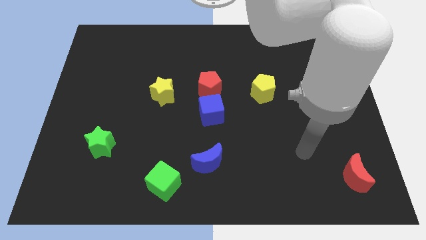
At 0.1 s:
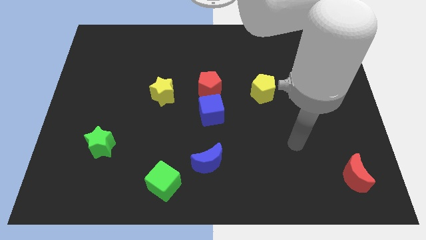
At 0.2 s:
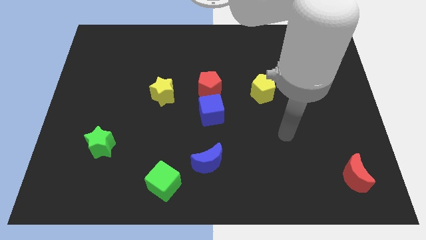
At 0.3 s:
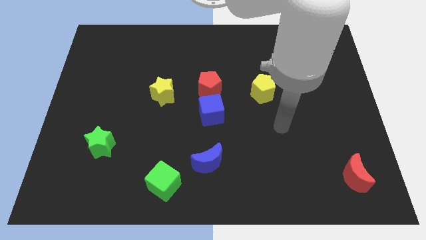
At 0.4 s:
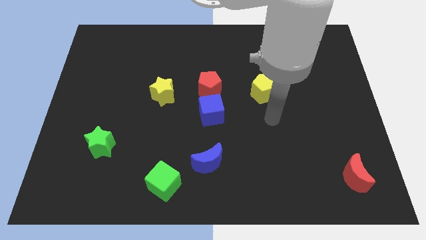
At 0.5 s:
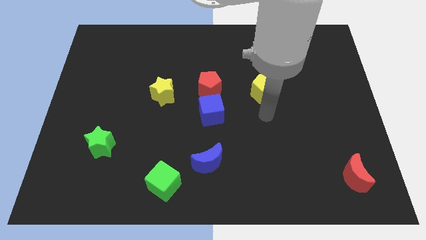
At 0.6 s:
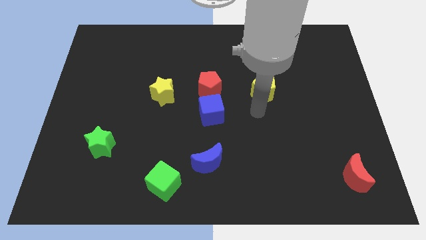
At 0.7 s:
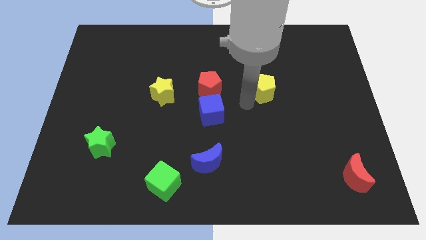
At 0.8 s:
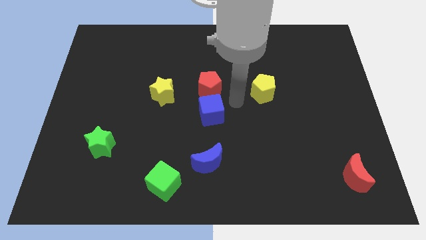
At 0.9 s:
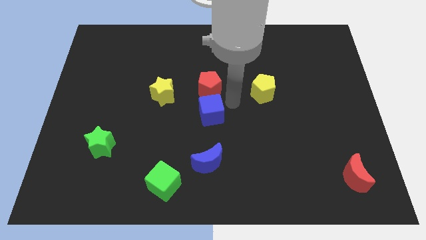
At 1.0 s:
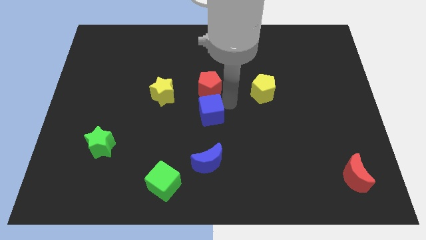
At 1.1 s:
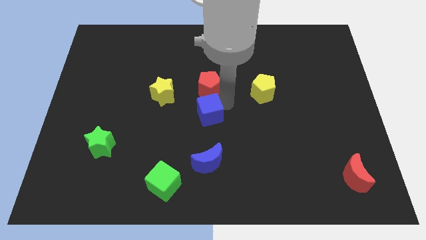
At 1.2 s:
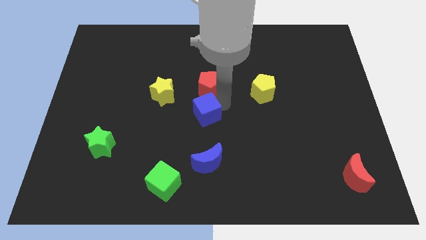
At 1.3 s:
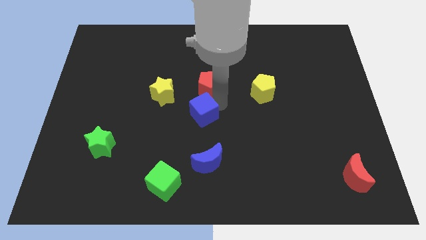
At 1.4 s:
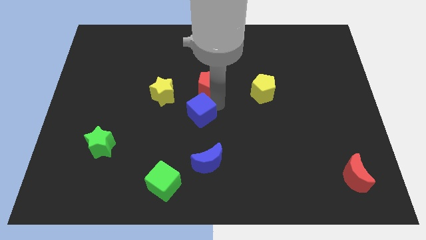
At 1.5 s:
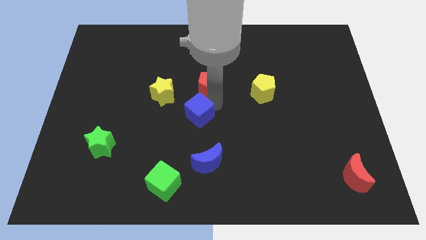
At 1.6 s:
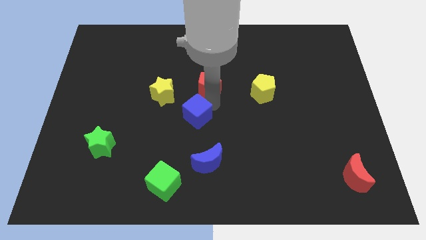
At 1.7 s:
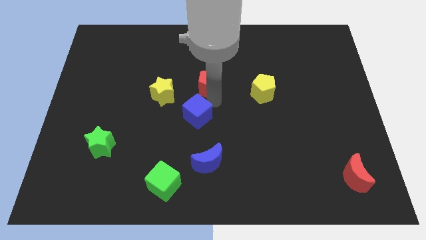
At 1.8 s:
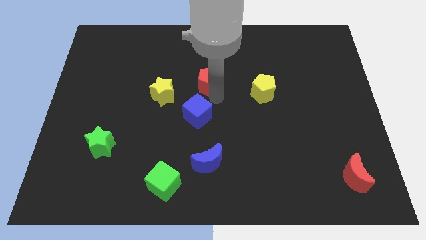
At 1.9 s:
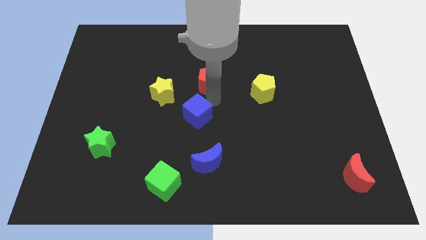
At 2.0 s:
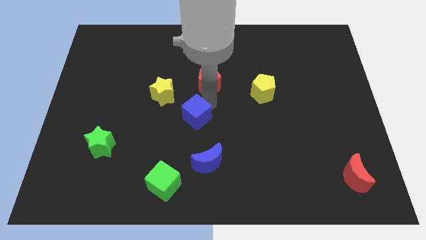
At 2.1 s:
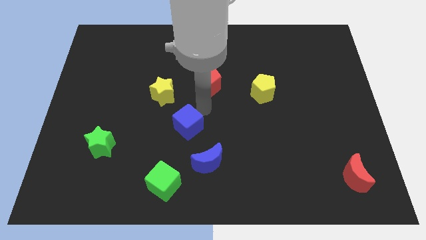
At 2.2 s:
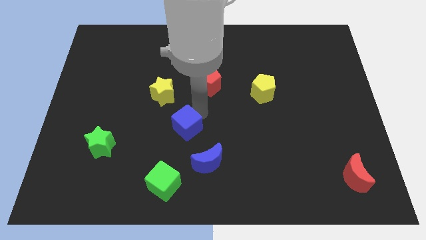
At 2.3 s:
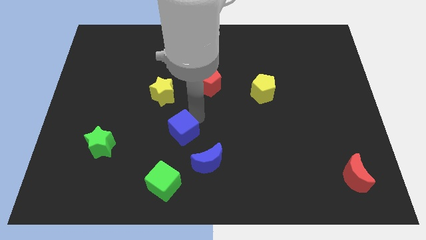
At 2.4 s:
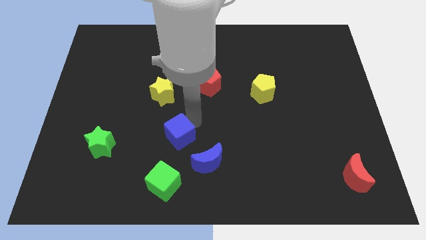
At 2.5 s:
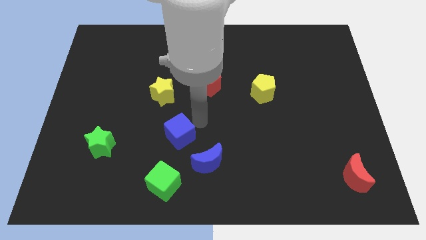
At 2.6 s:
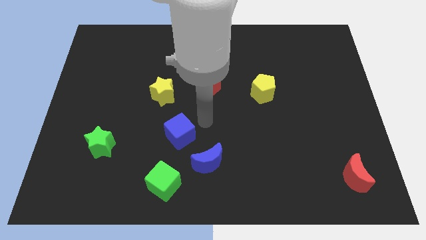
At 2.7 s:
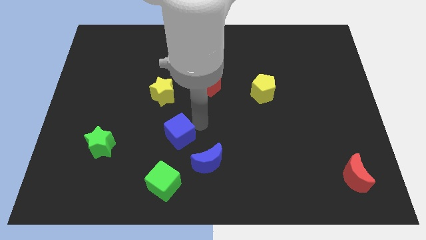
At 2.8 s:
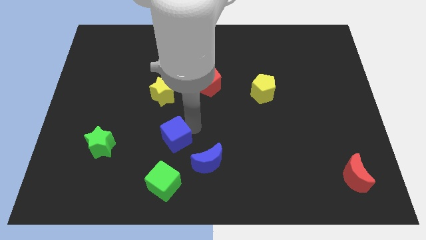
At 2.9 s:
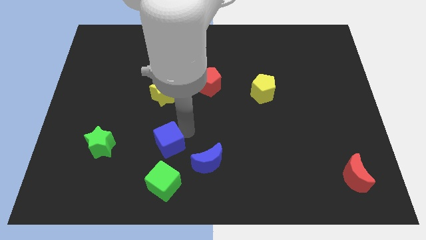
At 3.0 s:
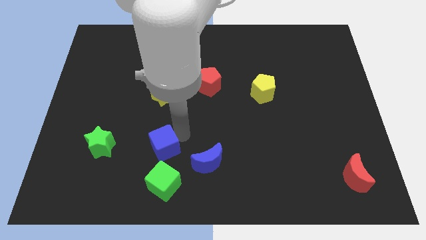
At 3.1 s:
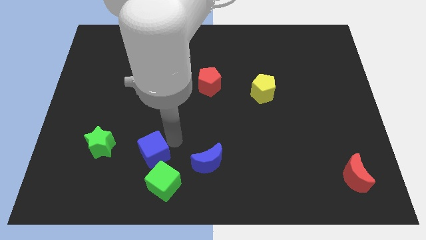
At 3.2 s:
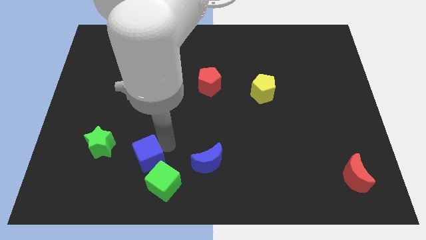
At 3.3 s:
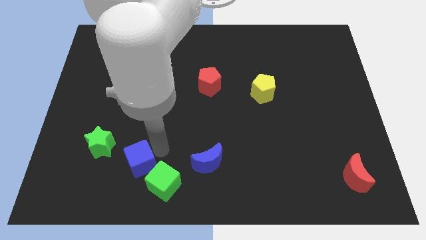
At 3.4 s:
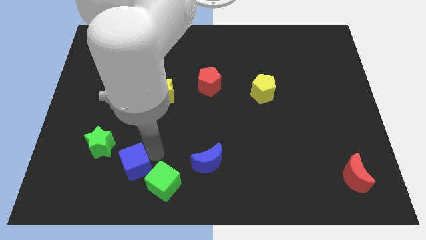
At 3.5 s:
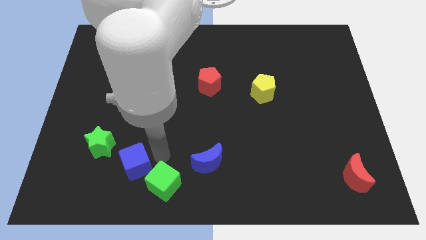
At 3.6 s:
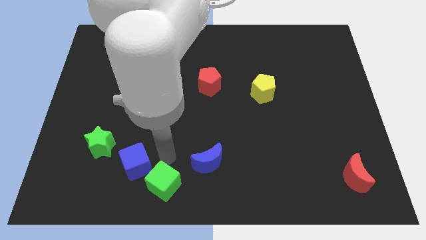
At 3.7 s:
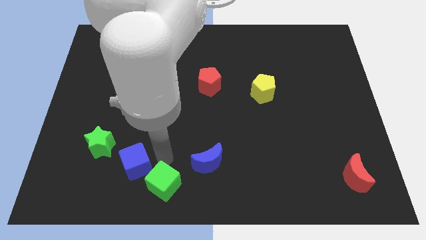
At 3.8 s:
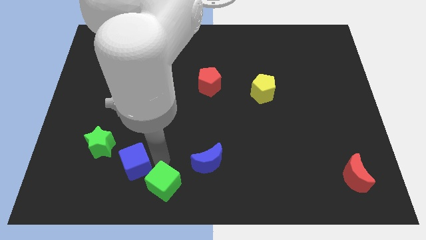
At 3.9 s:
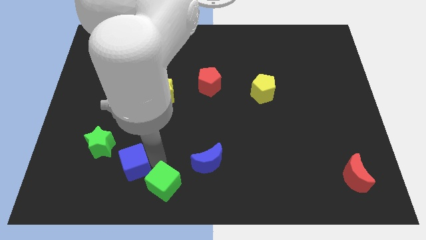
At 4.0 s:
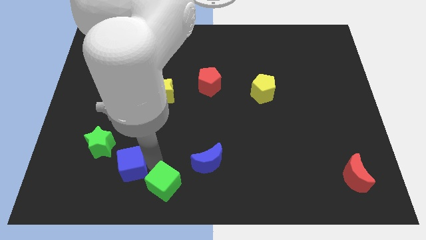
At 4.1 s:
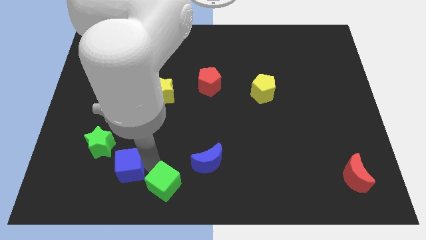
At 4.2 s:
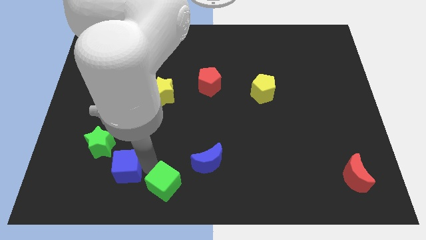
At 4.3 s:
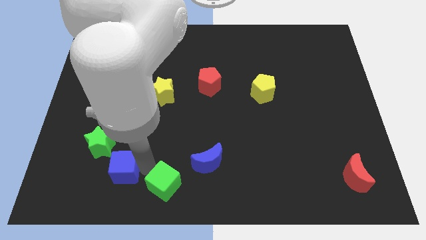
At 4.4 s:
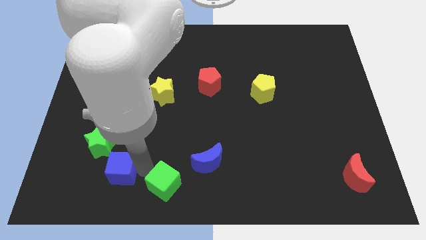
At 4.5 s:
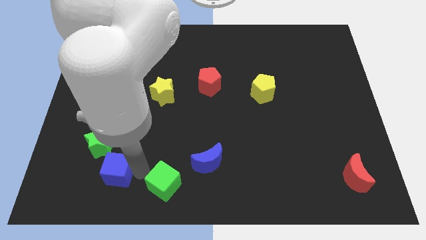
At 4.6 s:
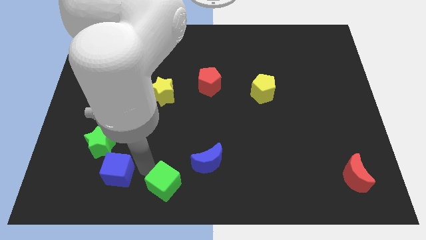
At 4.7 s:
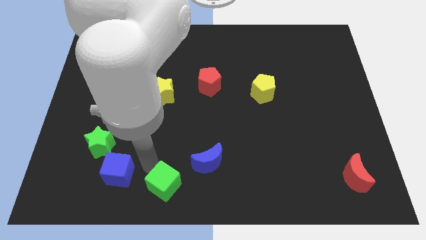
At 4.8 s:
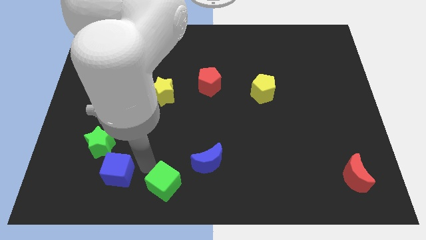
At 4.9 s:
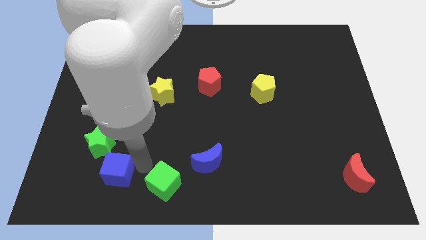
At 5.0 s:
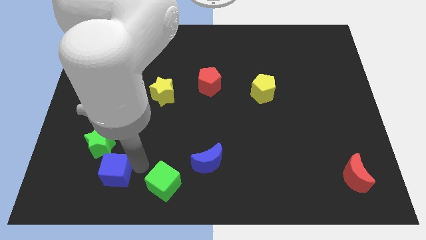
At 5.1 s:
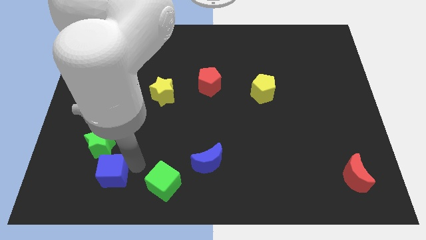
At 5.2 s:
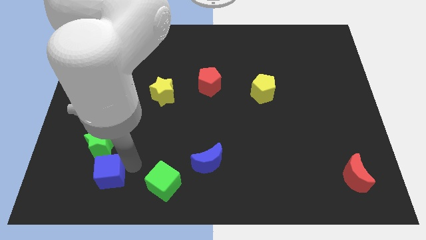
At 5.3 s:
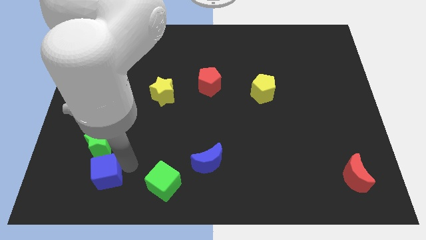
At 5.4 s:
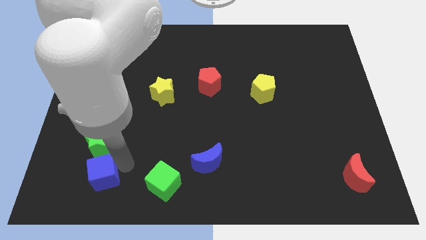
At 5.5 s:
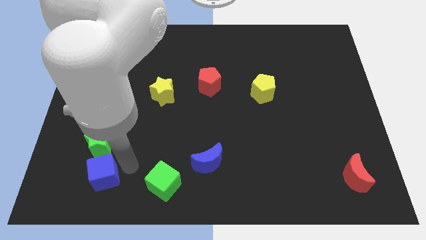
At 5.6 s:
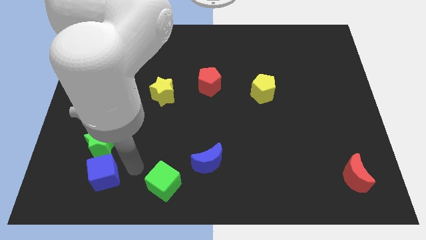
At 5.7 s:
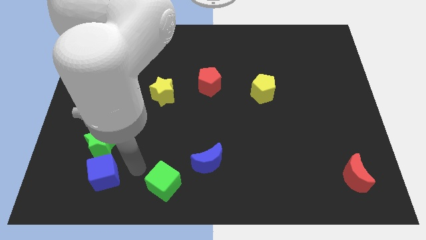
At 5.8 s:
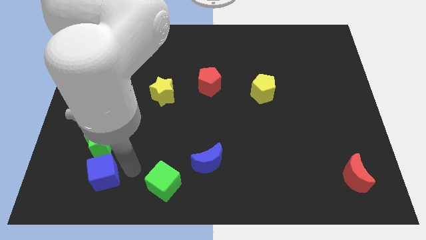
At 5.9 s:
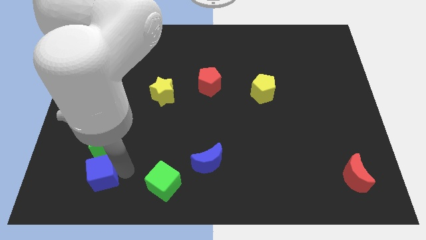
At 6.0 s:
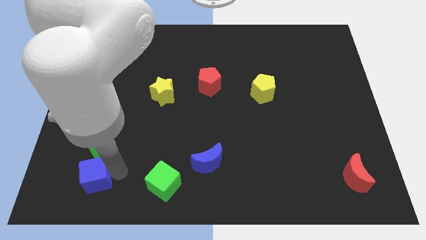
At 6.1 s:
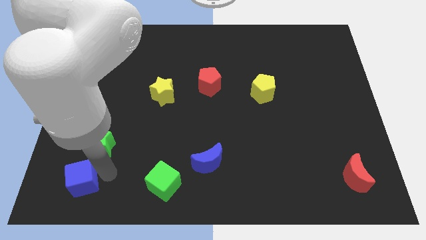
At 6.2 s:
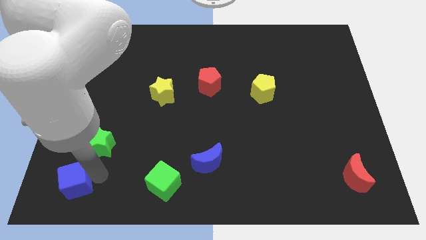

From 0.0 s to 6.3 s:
slide the blue cube to the bottom left

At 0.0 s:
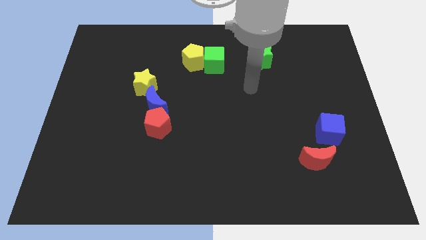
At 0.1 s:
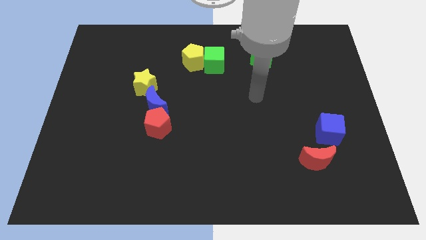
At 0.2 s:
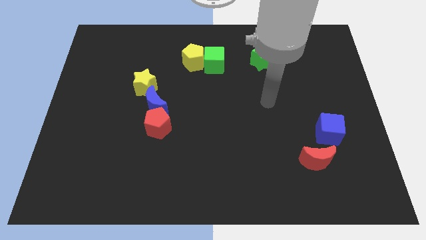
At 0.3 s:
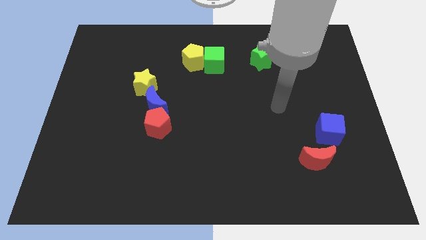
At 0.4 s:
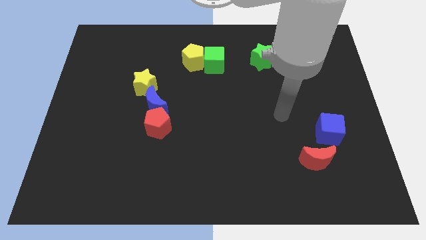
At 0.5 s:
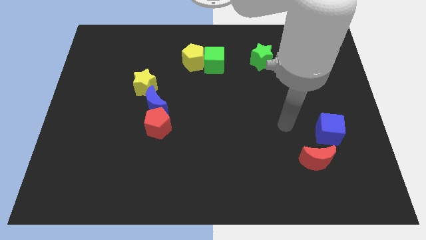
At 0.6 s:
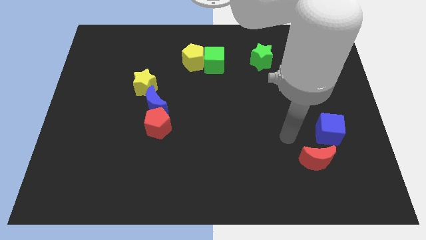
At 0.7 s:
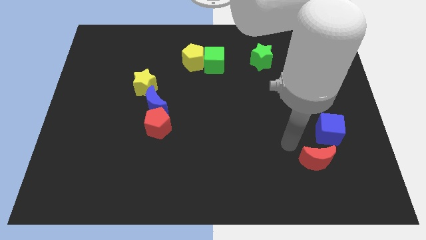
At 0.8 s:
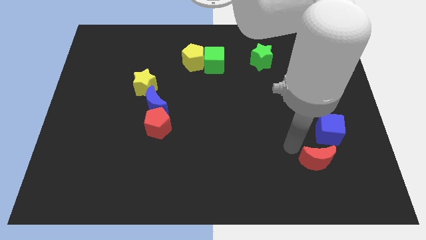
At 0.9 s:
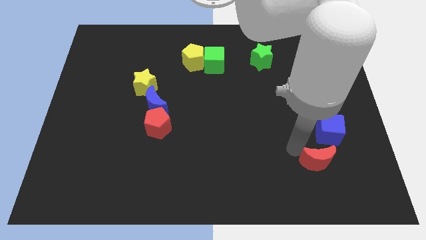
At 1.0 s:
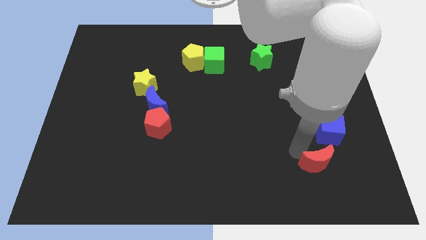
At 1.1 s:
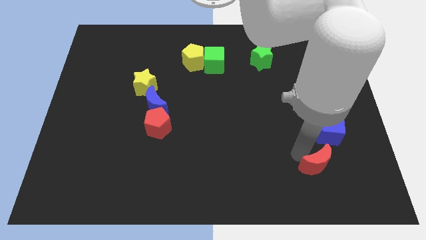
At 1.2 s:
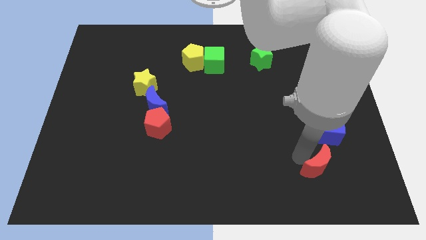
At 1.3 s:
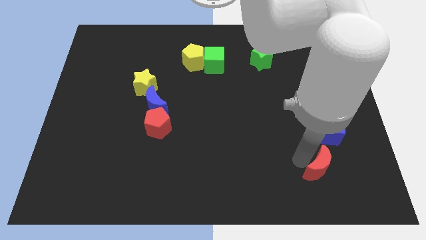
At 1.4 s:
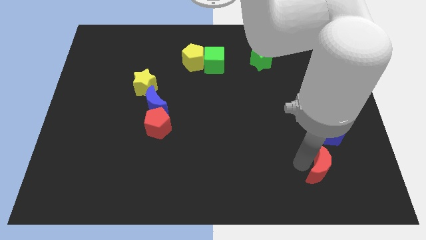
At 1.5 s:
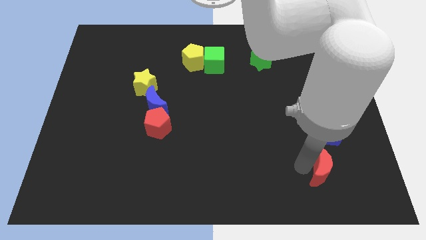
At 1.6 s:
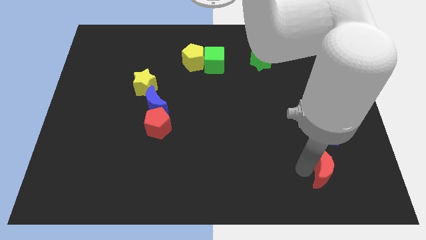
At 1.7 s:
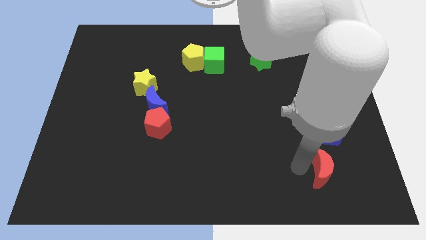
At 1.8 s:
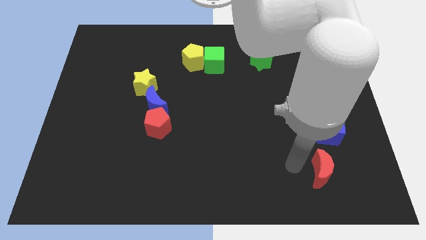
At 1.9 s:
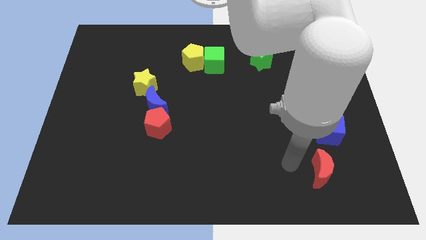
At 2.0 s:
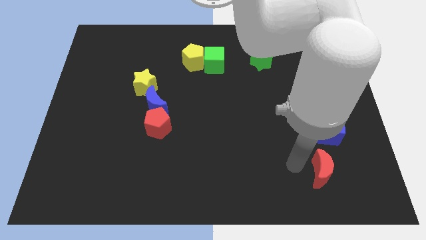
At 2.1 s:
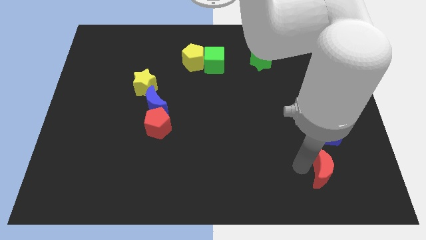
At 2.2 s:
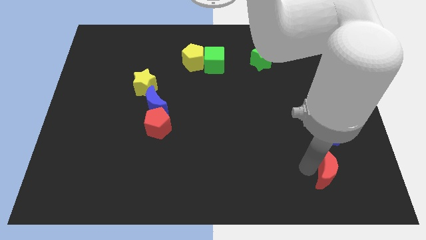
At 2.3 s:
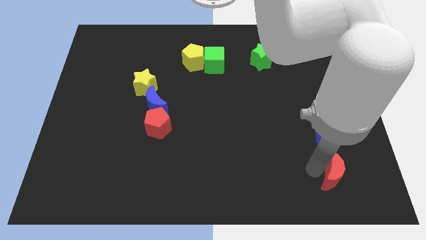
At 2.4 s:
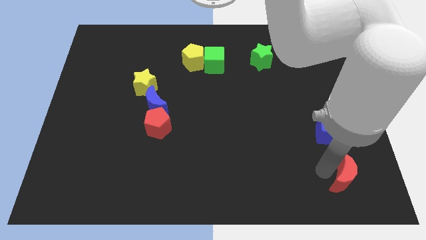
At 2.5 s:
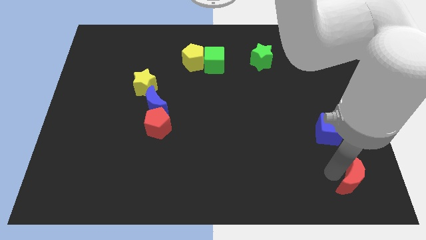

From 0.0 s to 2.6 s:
move the red moon to the bottom right of the board
